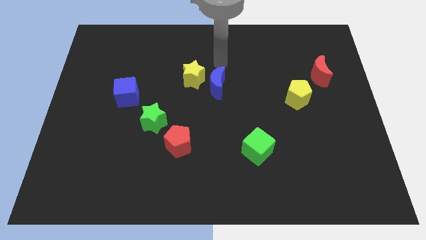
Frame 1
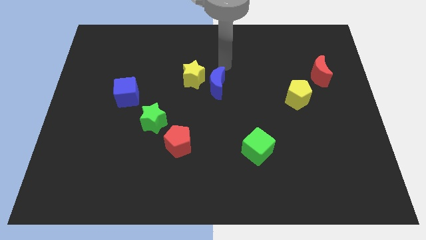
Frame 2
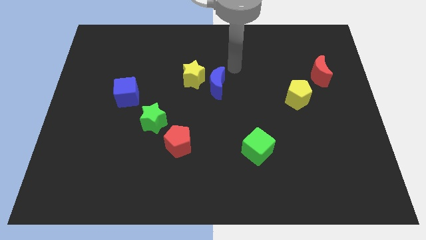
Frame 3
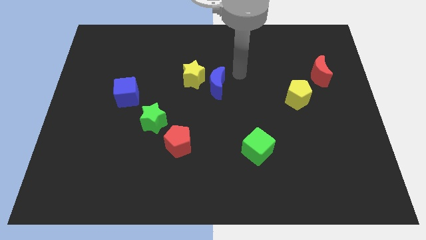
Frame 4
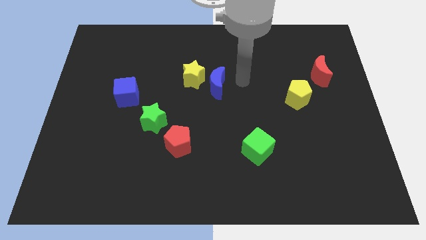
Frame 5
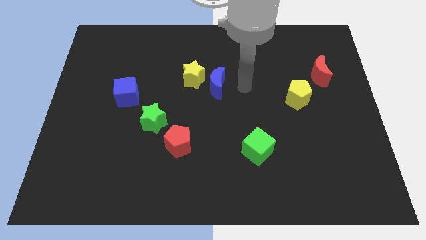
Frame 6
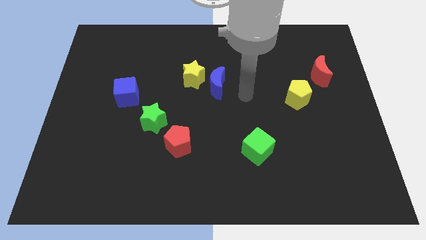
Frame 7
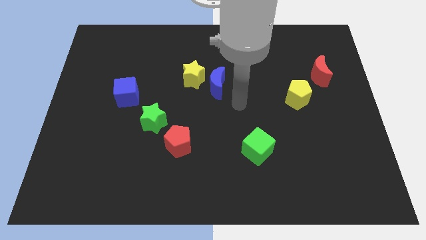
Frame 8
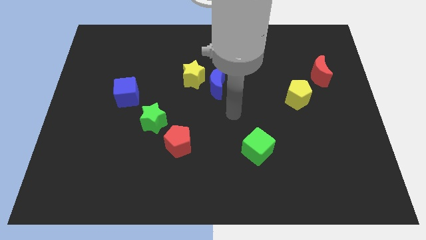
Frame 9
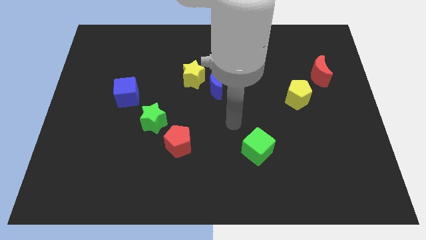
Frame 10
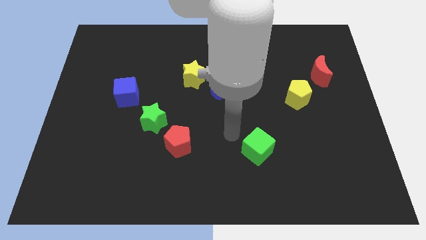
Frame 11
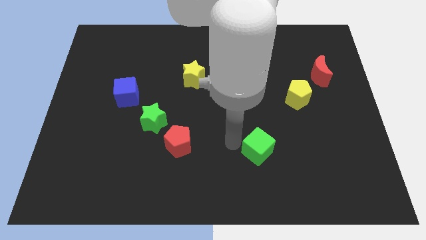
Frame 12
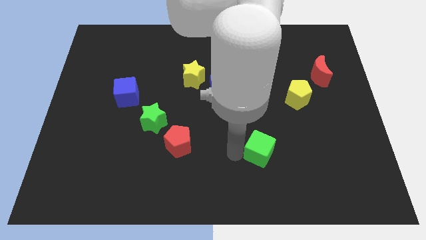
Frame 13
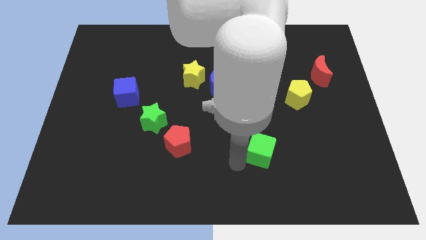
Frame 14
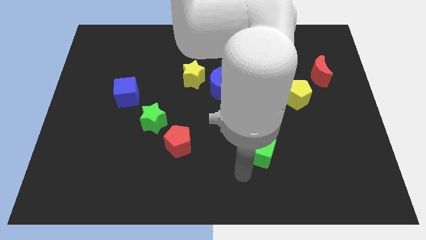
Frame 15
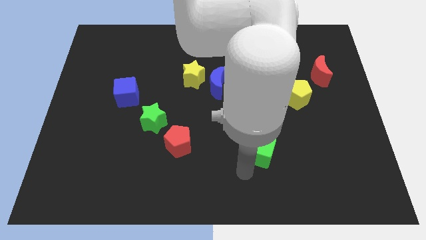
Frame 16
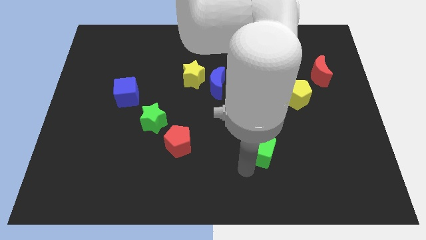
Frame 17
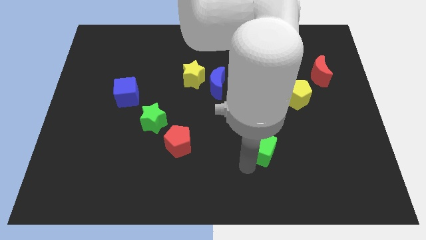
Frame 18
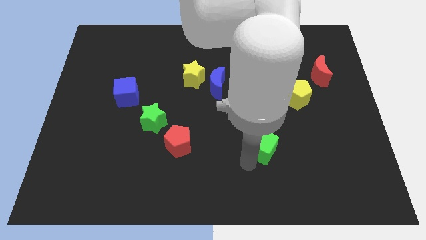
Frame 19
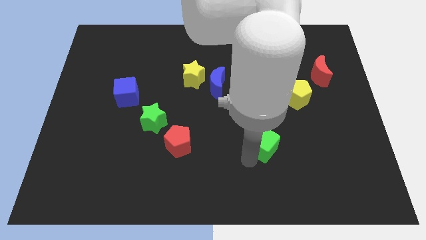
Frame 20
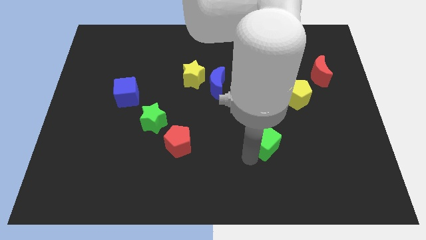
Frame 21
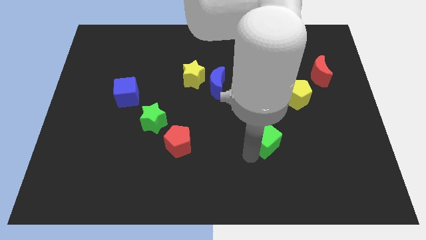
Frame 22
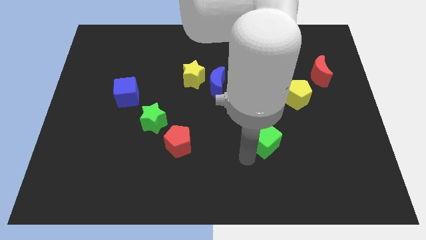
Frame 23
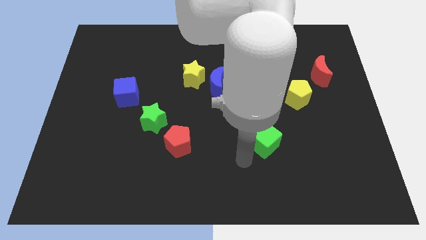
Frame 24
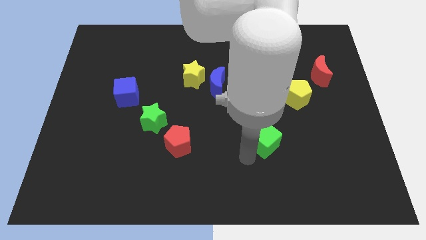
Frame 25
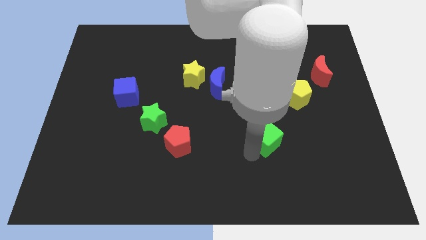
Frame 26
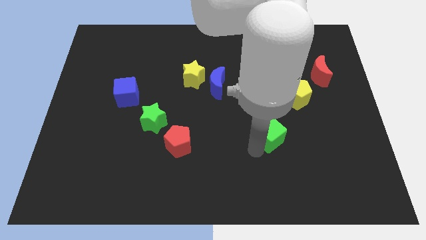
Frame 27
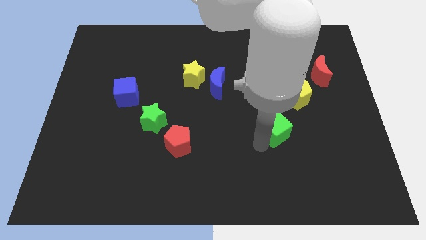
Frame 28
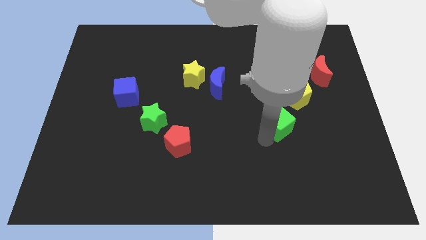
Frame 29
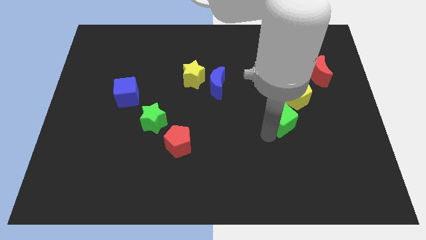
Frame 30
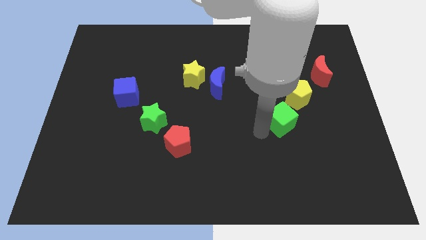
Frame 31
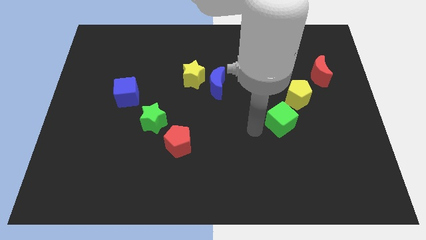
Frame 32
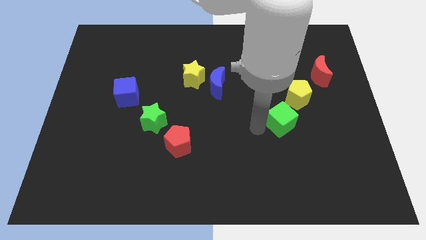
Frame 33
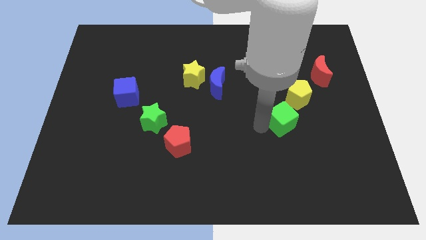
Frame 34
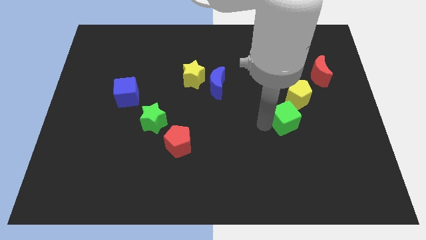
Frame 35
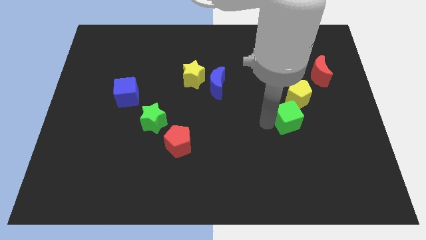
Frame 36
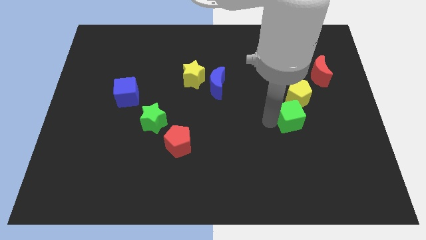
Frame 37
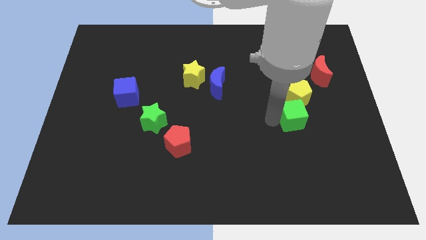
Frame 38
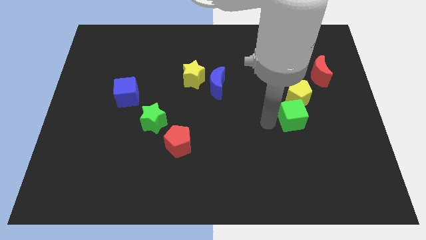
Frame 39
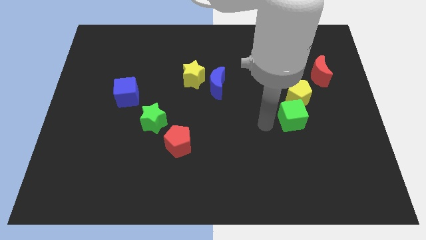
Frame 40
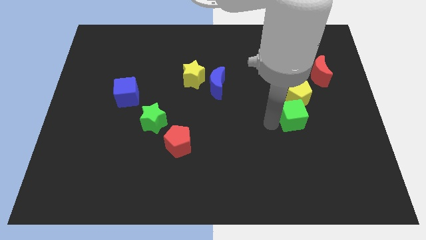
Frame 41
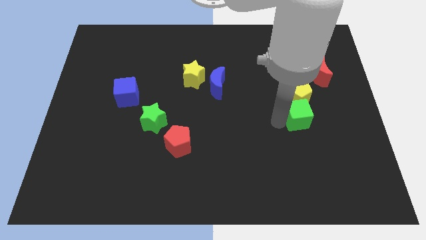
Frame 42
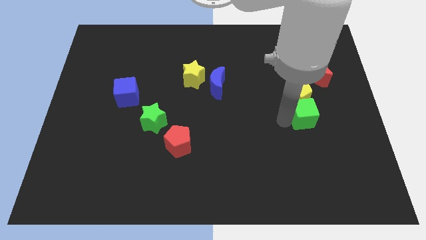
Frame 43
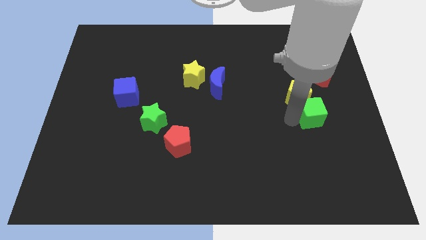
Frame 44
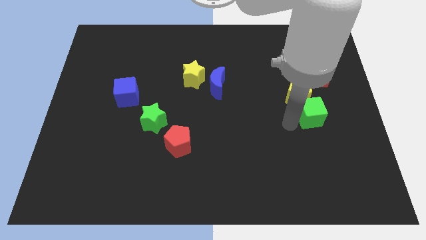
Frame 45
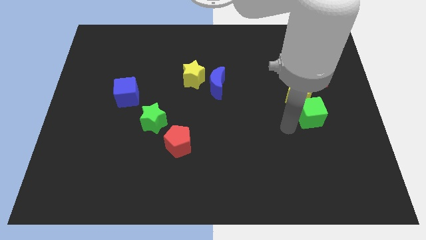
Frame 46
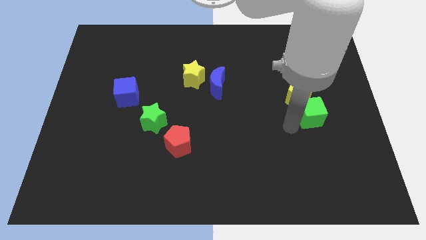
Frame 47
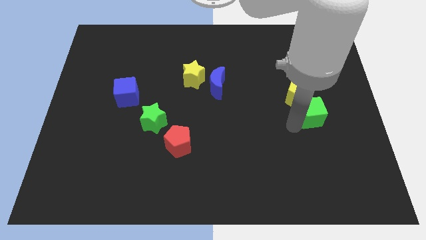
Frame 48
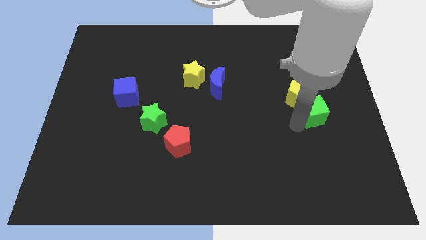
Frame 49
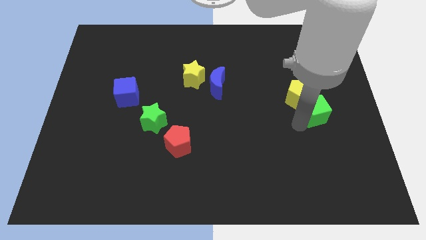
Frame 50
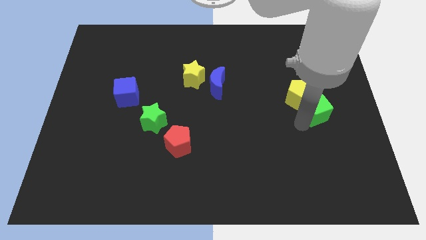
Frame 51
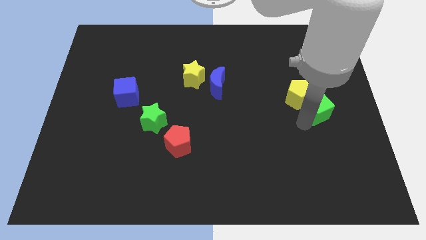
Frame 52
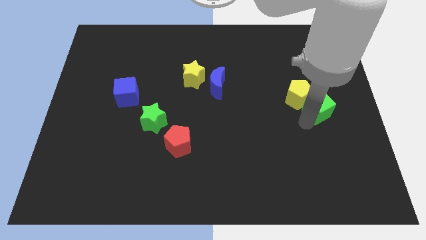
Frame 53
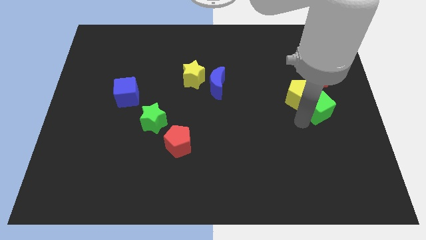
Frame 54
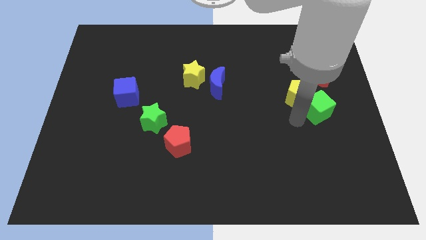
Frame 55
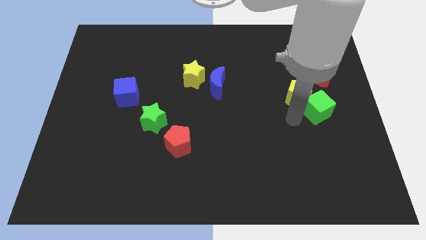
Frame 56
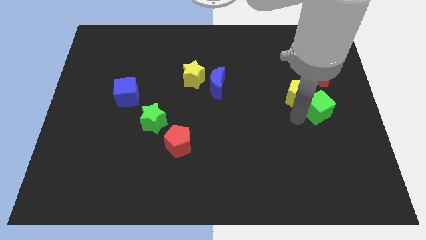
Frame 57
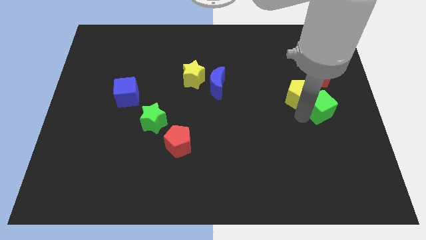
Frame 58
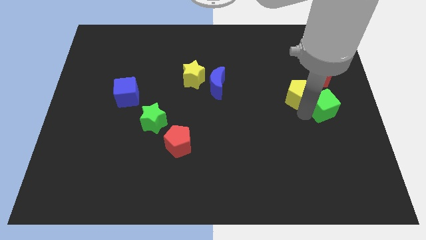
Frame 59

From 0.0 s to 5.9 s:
put the green cube to the right side
